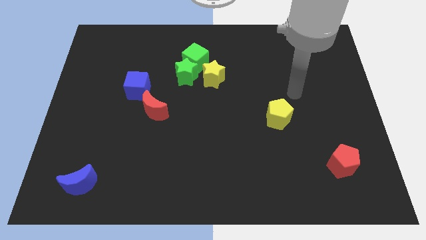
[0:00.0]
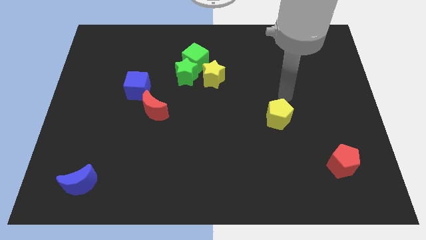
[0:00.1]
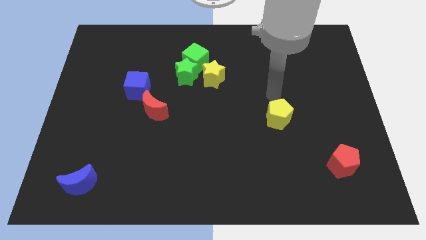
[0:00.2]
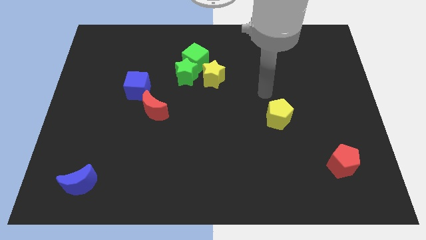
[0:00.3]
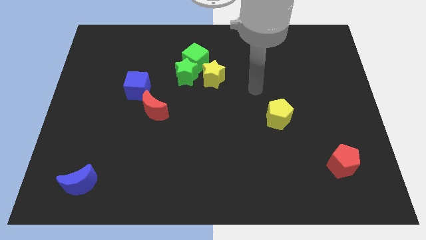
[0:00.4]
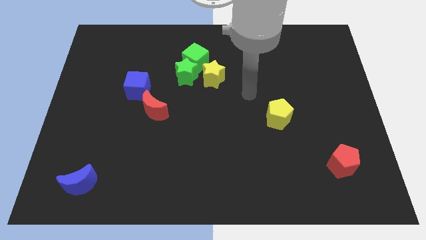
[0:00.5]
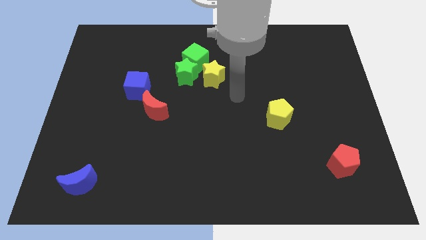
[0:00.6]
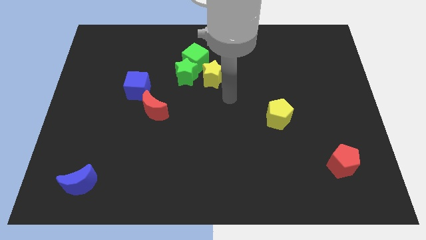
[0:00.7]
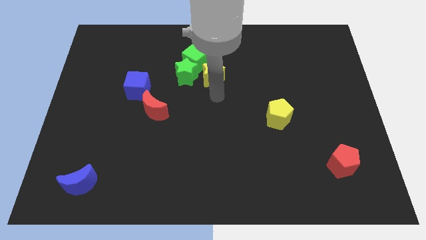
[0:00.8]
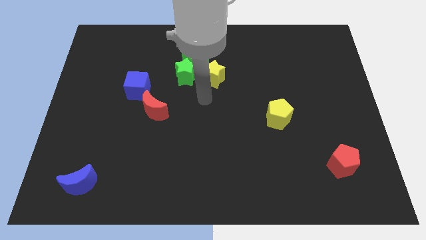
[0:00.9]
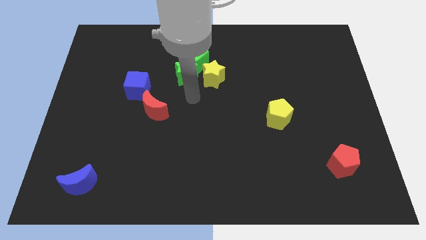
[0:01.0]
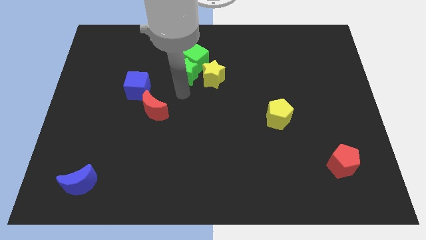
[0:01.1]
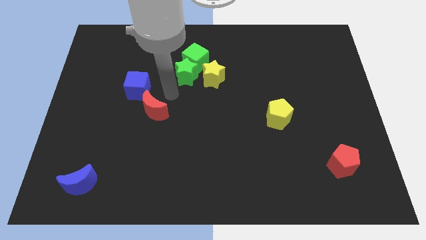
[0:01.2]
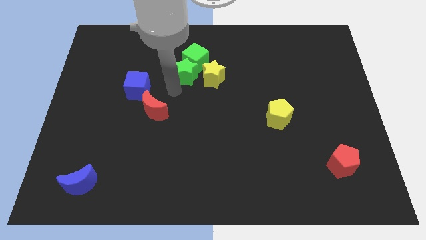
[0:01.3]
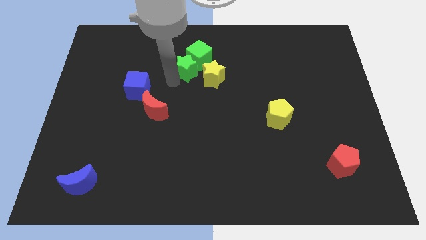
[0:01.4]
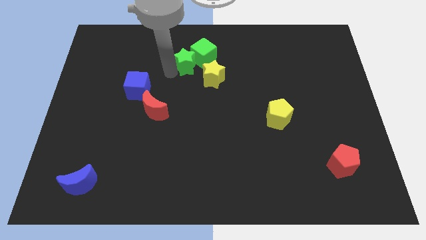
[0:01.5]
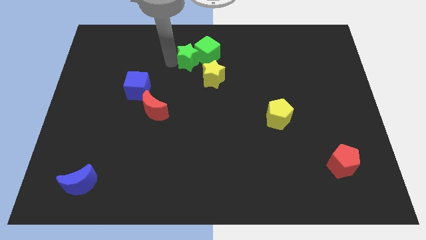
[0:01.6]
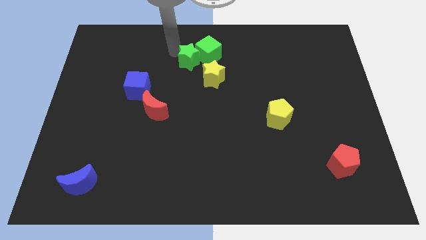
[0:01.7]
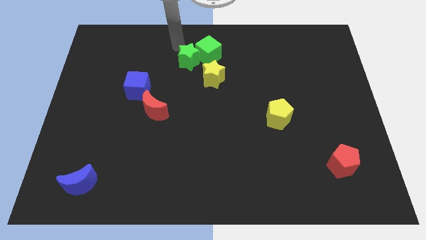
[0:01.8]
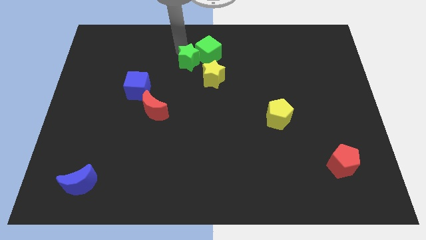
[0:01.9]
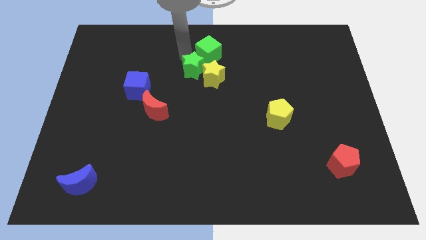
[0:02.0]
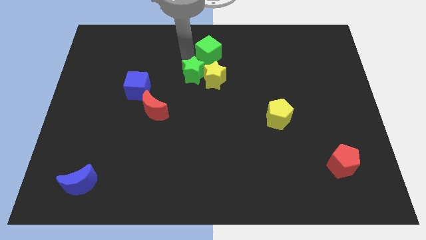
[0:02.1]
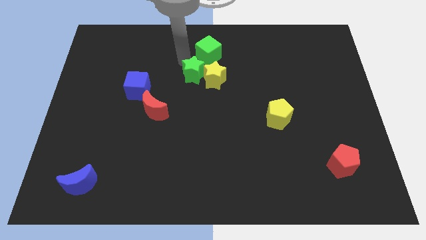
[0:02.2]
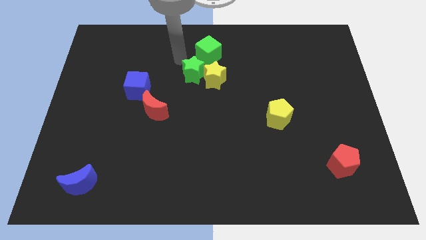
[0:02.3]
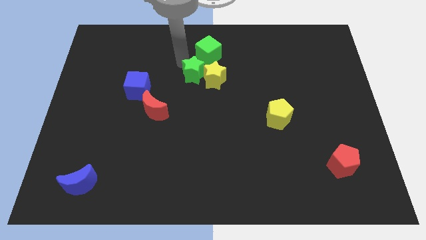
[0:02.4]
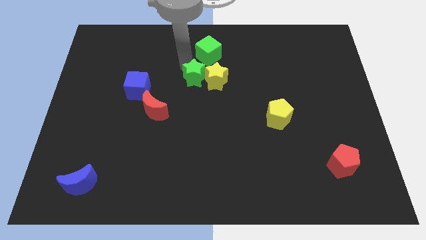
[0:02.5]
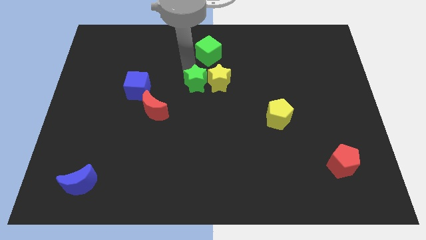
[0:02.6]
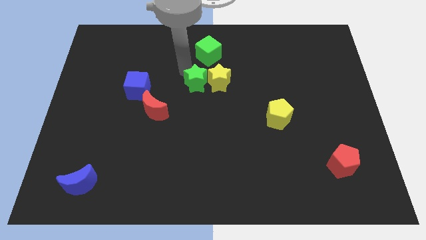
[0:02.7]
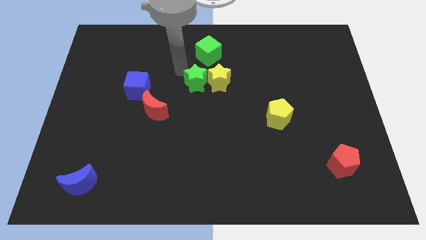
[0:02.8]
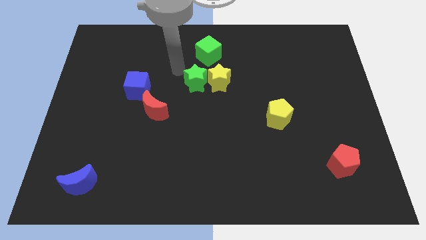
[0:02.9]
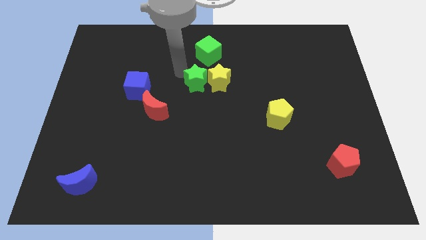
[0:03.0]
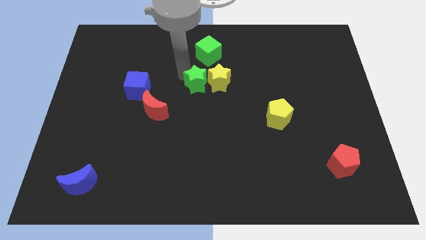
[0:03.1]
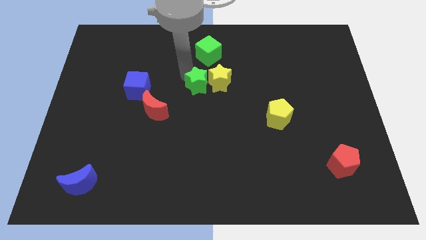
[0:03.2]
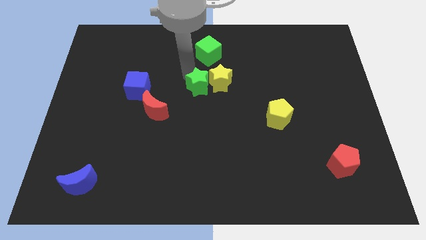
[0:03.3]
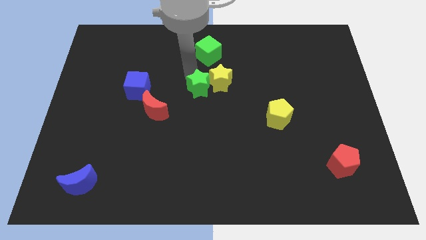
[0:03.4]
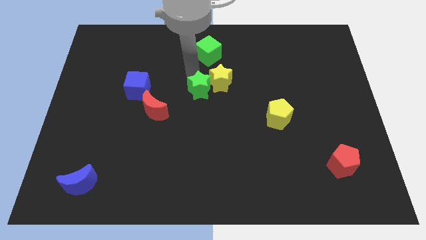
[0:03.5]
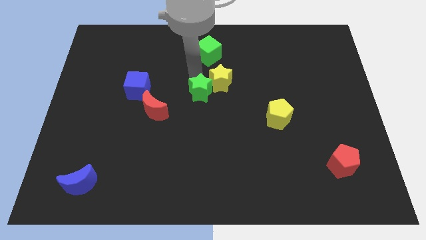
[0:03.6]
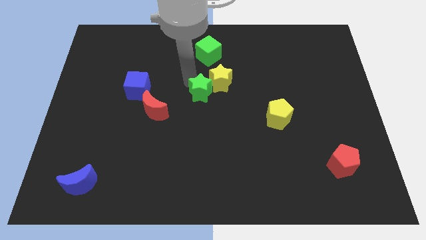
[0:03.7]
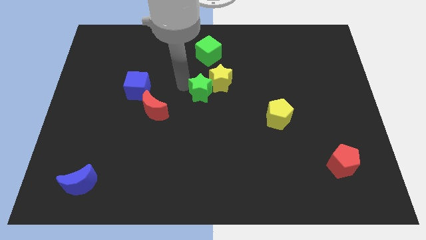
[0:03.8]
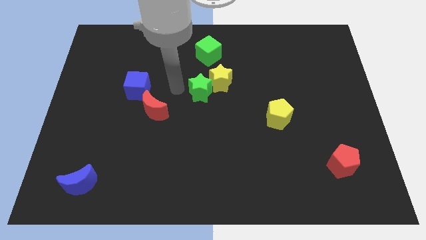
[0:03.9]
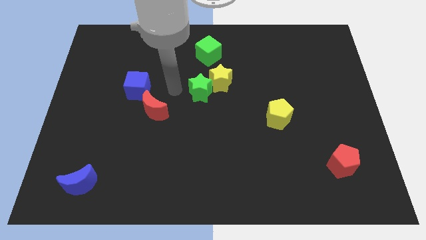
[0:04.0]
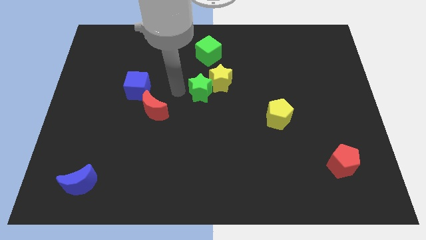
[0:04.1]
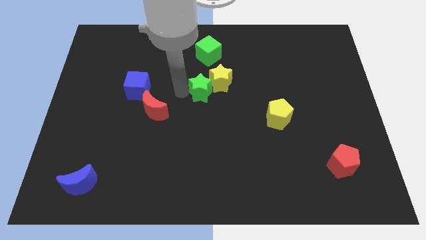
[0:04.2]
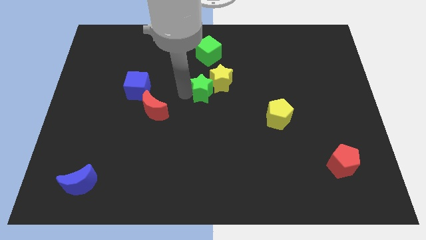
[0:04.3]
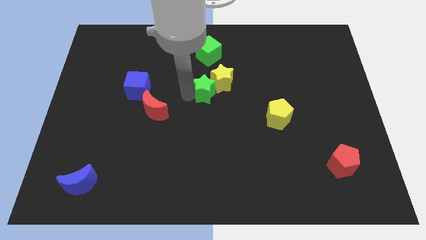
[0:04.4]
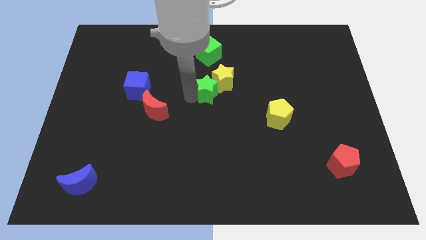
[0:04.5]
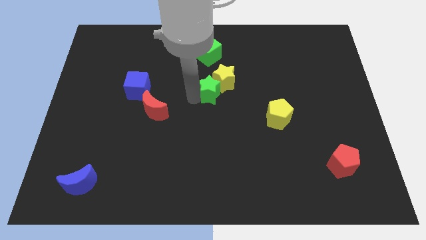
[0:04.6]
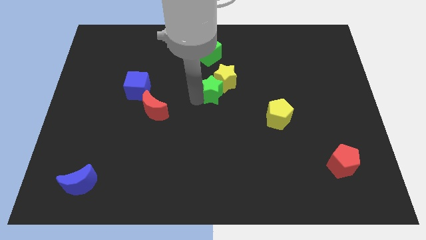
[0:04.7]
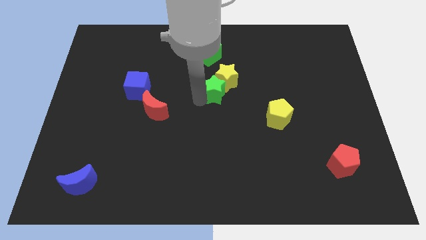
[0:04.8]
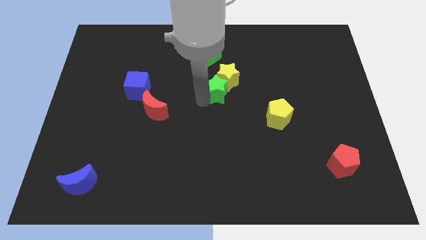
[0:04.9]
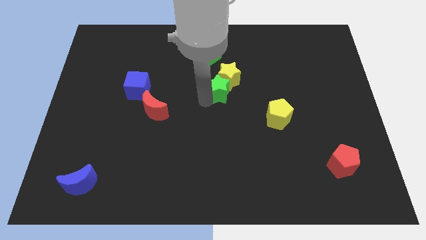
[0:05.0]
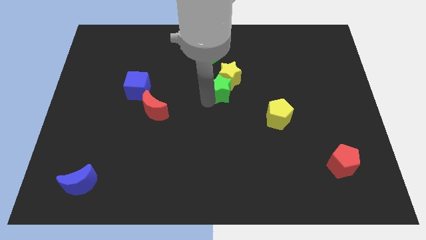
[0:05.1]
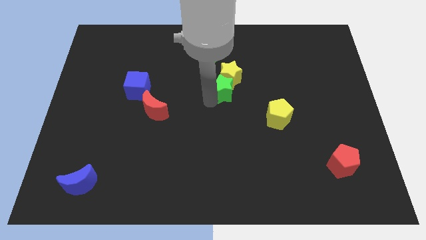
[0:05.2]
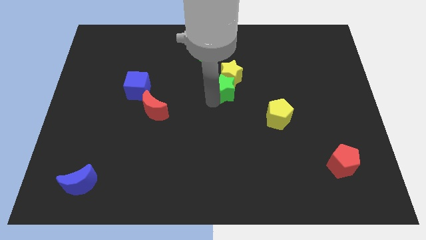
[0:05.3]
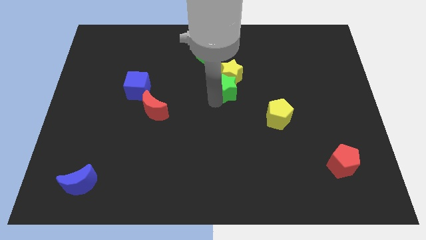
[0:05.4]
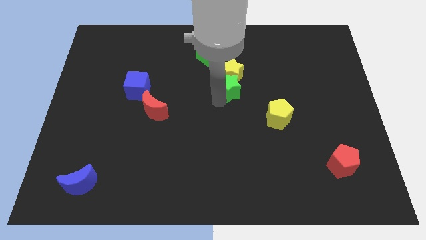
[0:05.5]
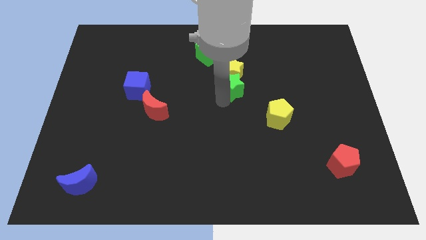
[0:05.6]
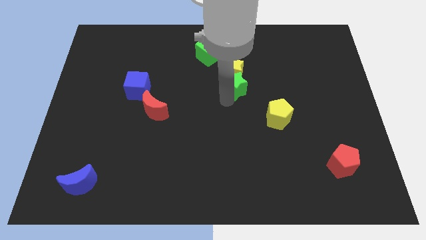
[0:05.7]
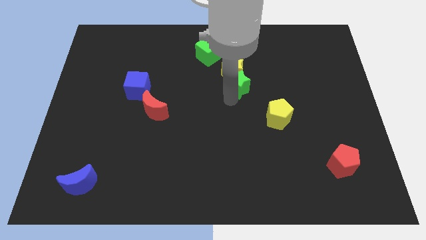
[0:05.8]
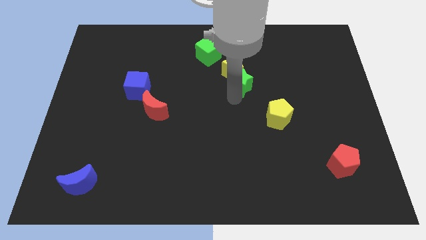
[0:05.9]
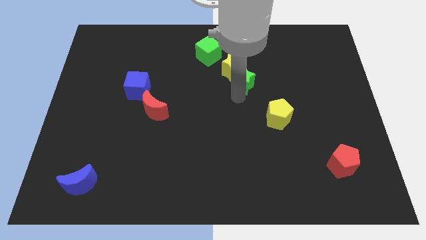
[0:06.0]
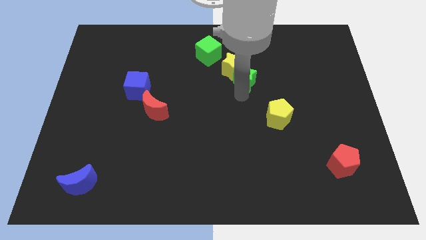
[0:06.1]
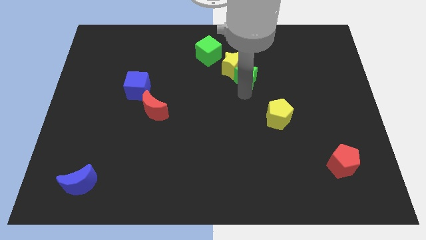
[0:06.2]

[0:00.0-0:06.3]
move the green star to the right side of the yellow star

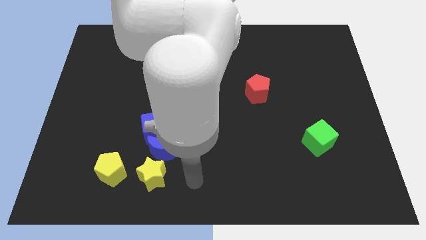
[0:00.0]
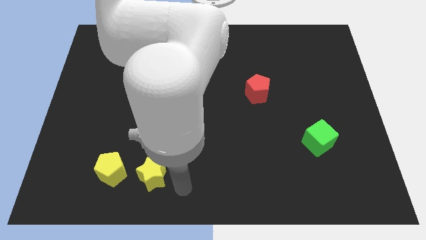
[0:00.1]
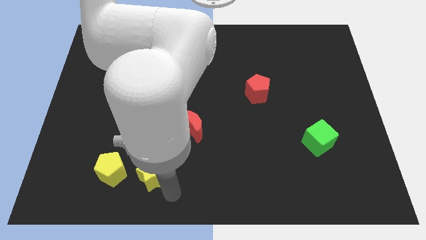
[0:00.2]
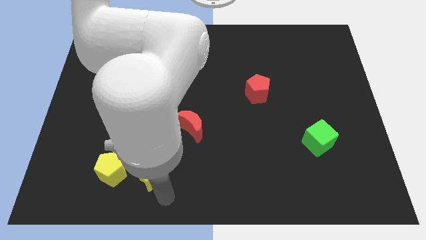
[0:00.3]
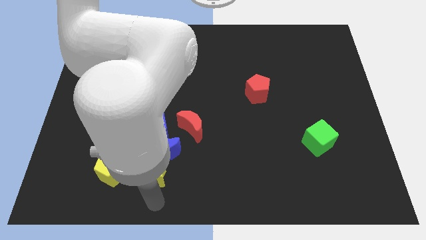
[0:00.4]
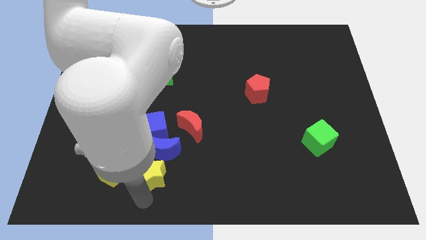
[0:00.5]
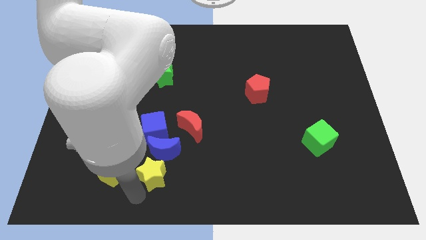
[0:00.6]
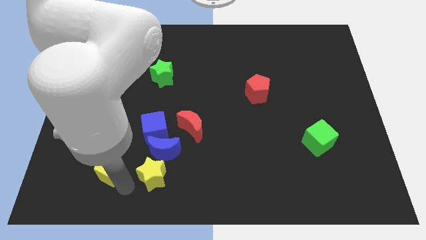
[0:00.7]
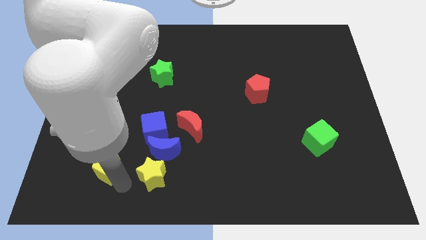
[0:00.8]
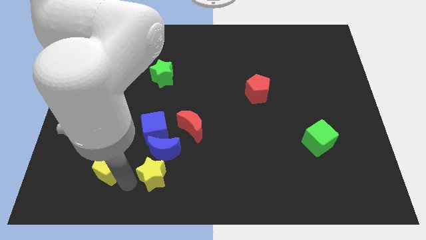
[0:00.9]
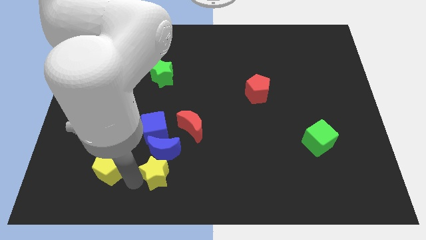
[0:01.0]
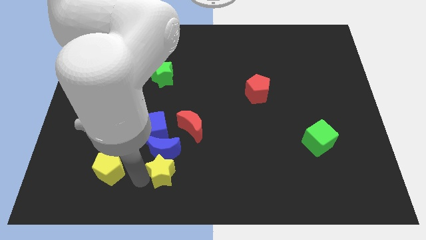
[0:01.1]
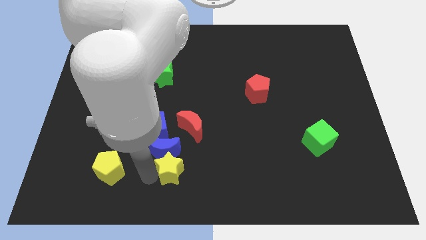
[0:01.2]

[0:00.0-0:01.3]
put the yellow star to the bottom side of the red moon
